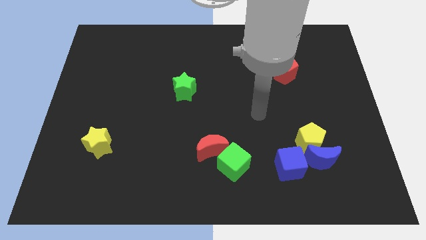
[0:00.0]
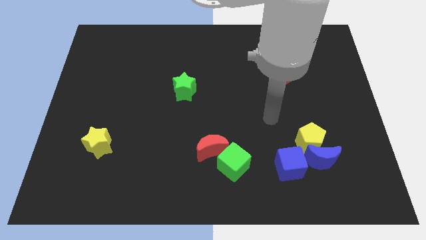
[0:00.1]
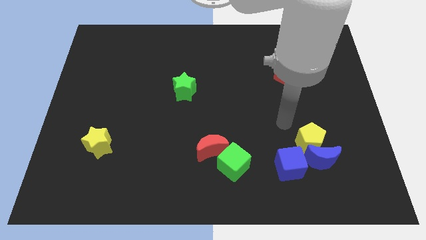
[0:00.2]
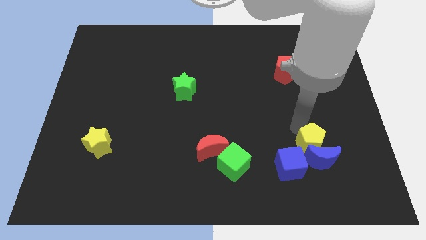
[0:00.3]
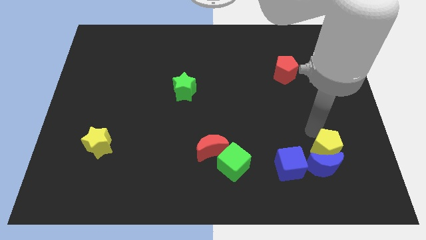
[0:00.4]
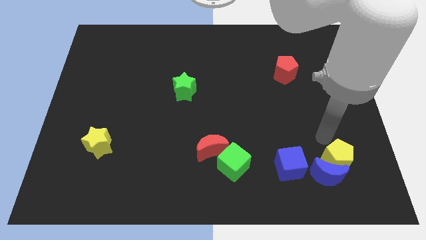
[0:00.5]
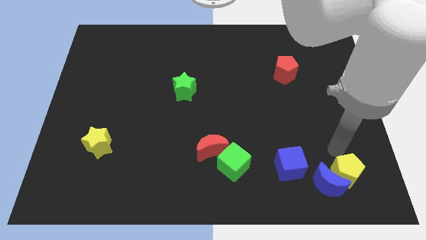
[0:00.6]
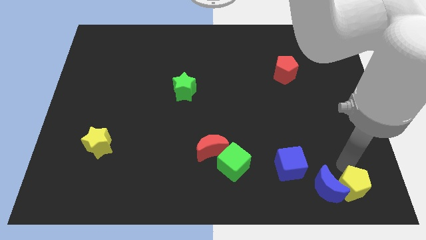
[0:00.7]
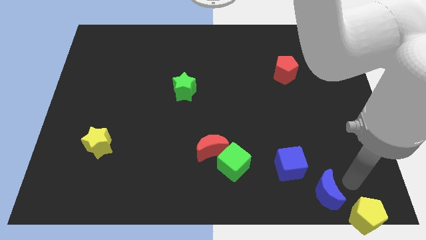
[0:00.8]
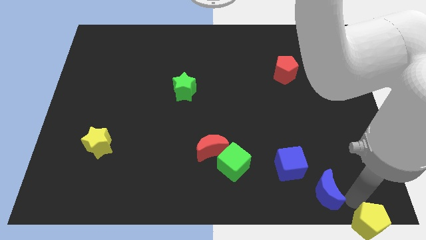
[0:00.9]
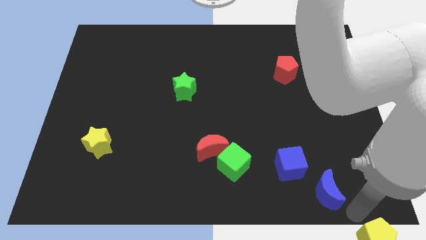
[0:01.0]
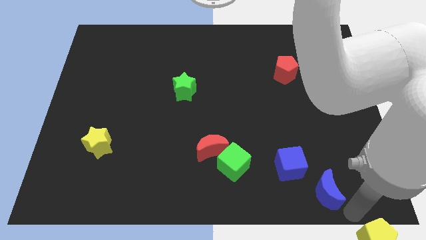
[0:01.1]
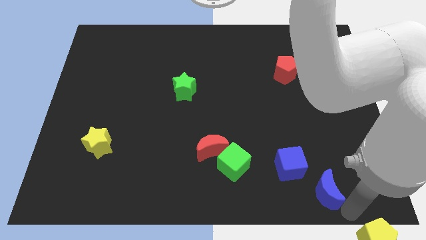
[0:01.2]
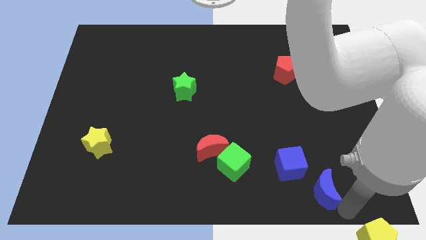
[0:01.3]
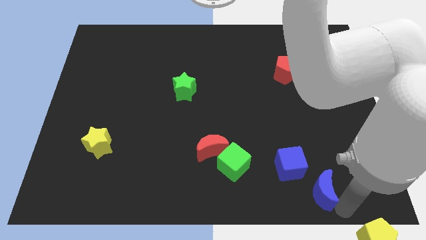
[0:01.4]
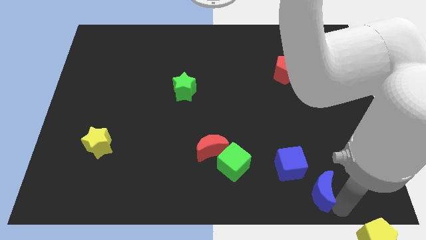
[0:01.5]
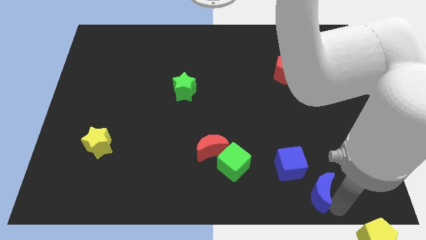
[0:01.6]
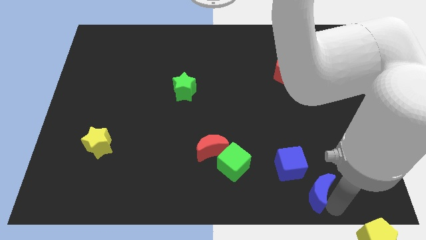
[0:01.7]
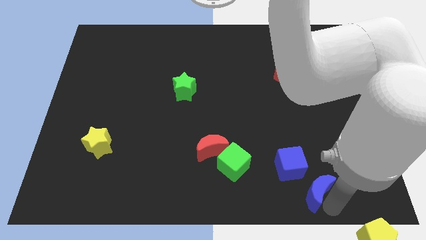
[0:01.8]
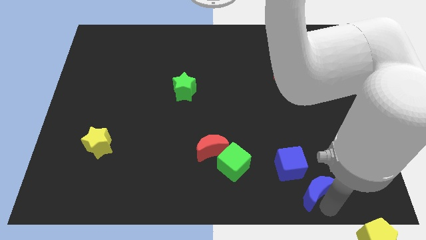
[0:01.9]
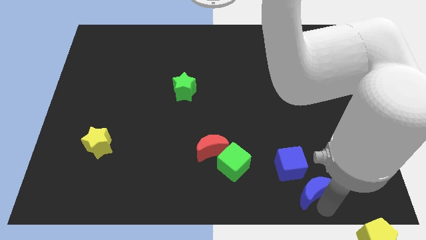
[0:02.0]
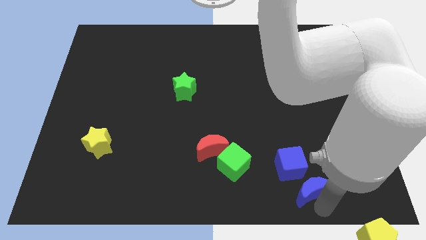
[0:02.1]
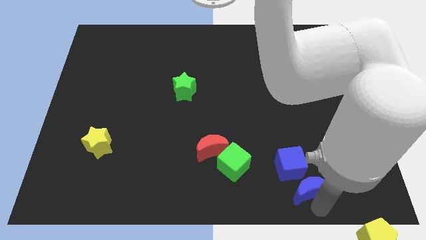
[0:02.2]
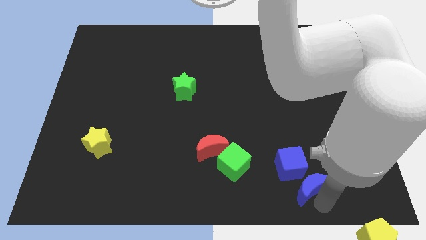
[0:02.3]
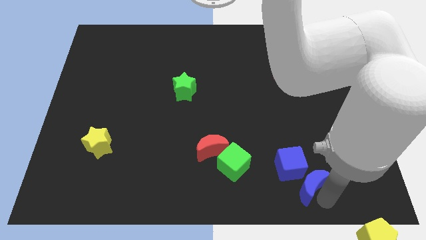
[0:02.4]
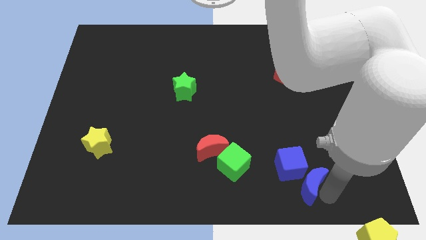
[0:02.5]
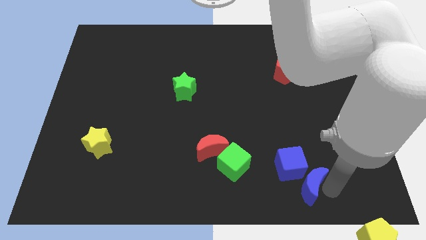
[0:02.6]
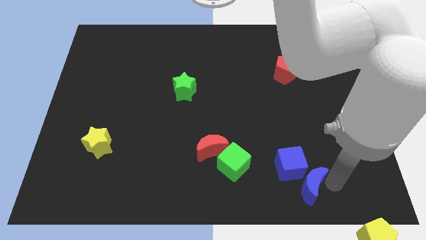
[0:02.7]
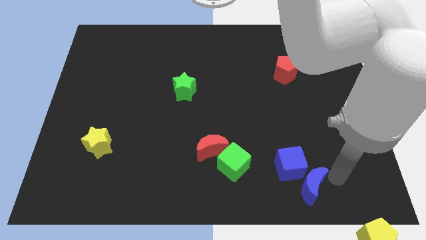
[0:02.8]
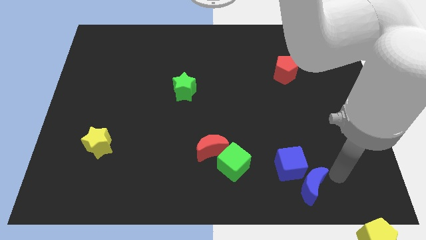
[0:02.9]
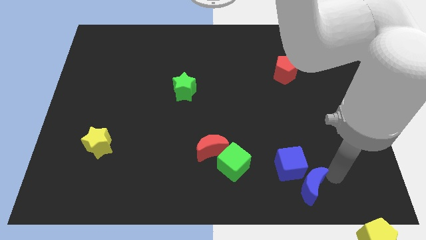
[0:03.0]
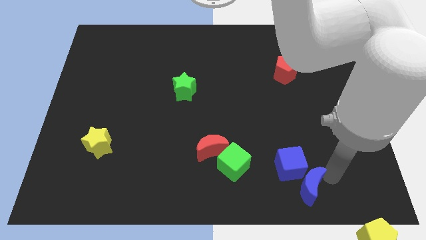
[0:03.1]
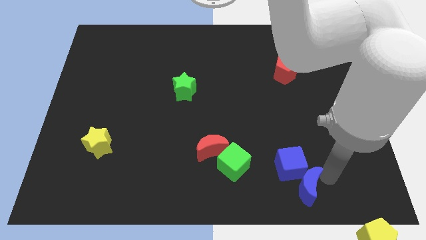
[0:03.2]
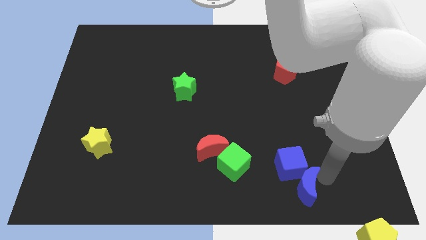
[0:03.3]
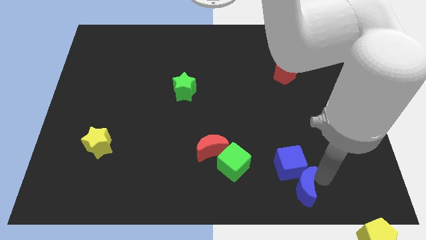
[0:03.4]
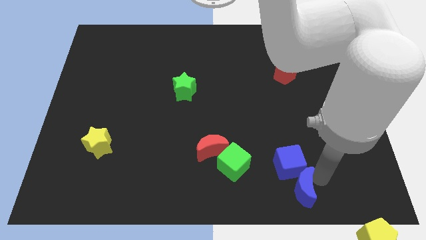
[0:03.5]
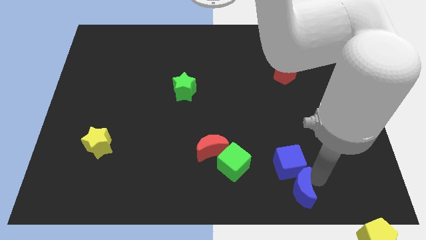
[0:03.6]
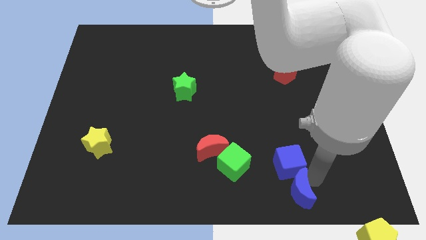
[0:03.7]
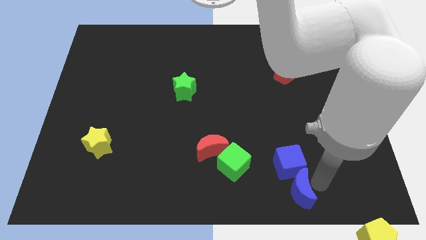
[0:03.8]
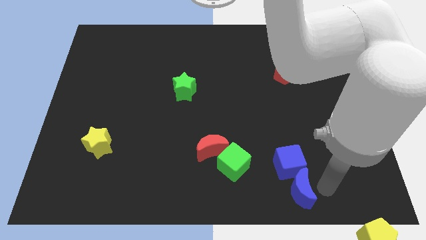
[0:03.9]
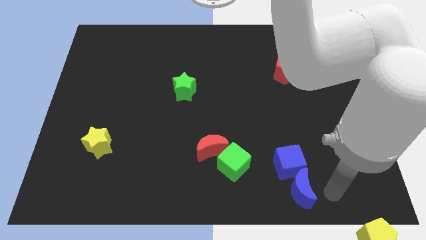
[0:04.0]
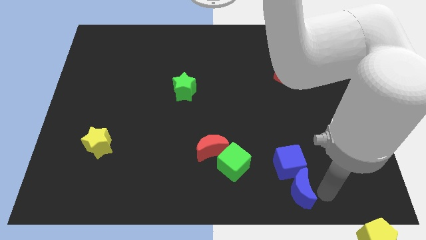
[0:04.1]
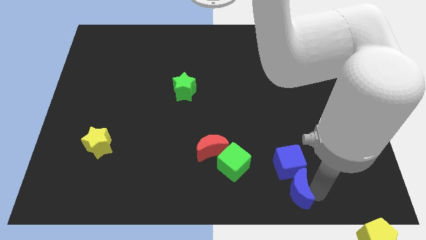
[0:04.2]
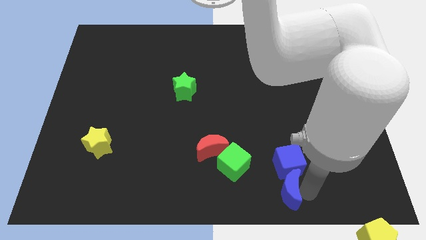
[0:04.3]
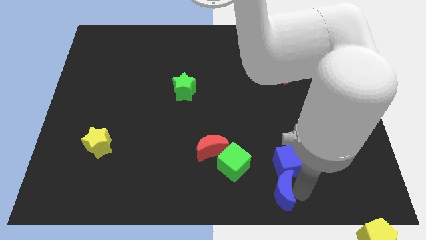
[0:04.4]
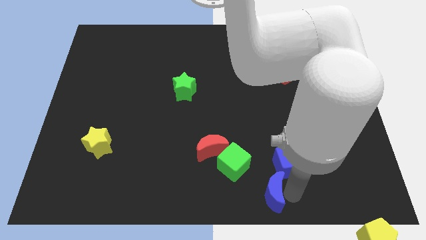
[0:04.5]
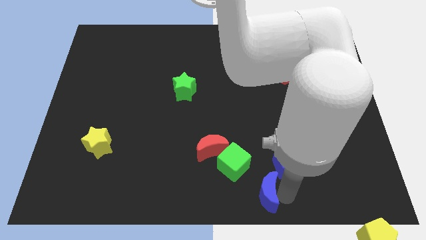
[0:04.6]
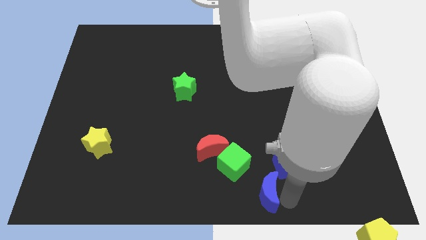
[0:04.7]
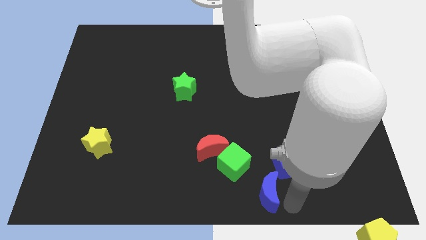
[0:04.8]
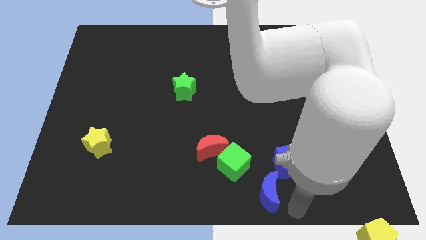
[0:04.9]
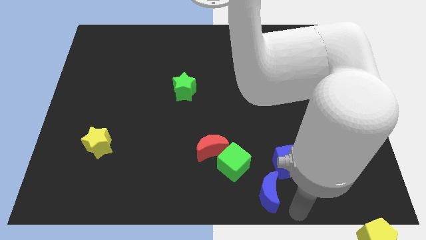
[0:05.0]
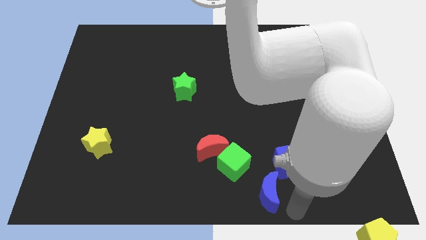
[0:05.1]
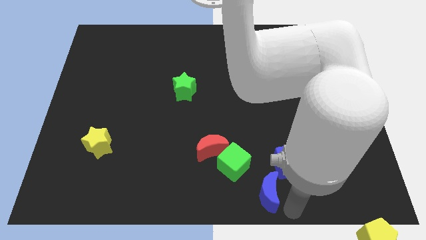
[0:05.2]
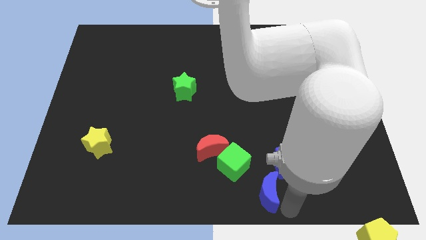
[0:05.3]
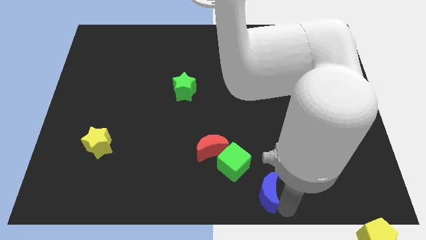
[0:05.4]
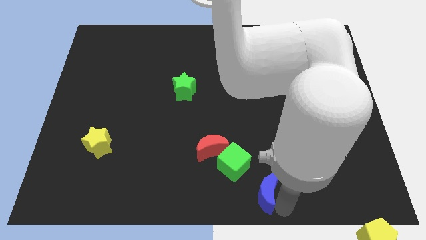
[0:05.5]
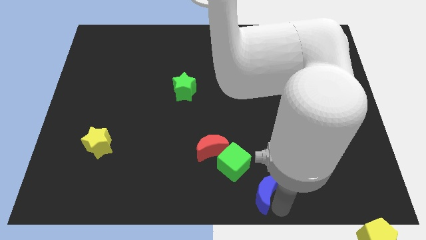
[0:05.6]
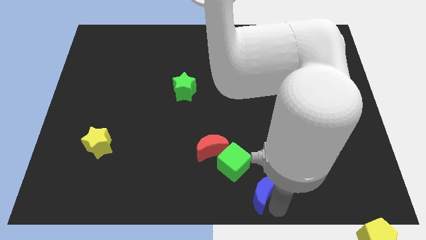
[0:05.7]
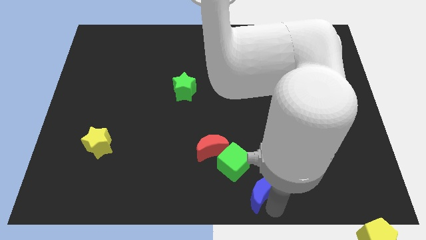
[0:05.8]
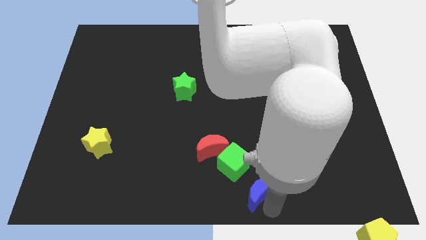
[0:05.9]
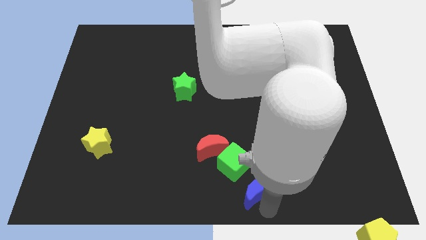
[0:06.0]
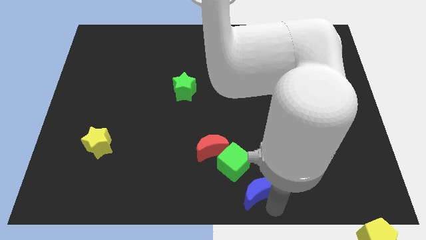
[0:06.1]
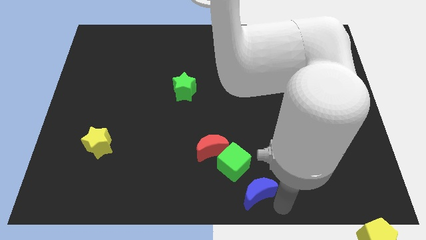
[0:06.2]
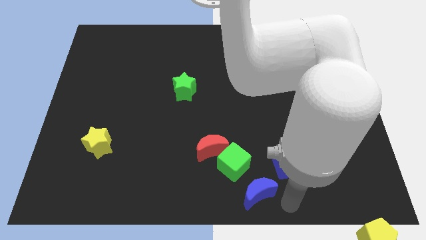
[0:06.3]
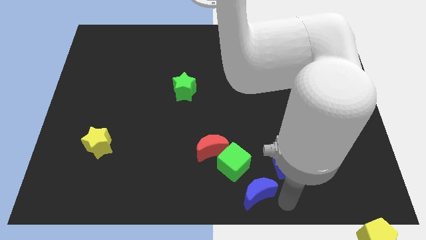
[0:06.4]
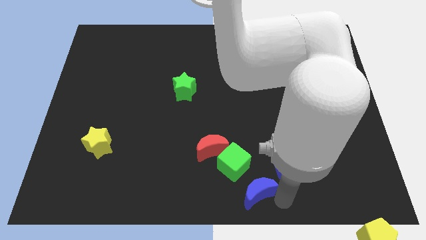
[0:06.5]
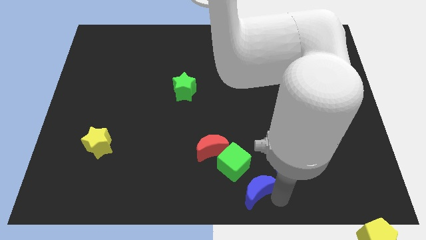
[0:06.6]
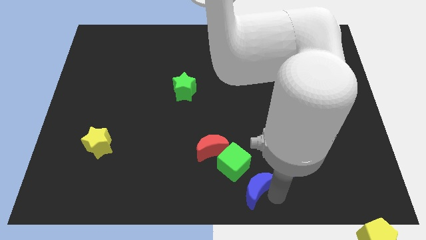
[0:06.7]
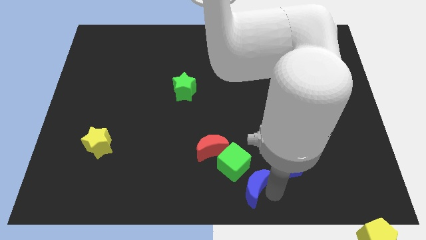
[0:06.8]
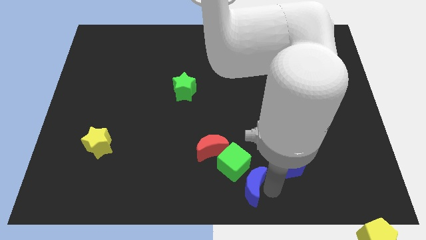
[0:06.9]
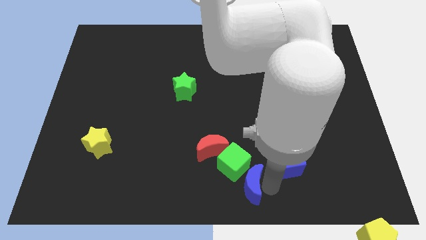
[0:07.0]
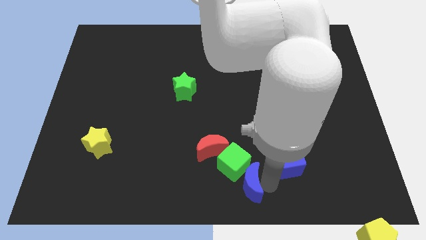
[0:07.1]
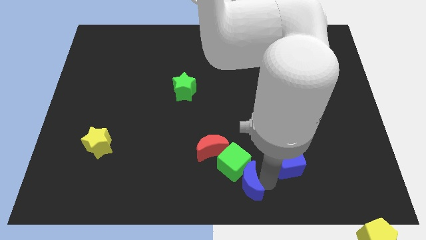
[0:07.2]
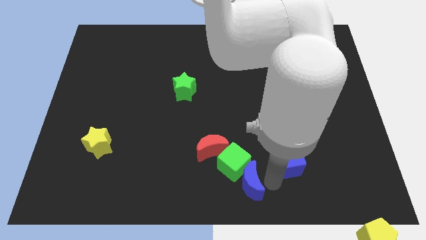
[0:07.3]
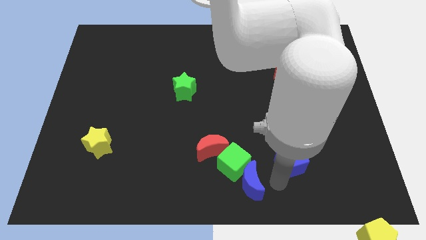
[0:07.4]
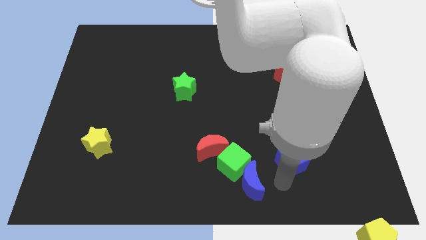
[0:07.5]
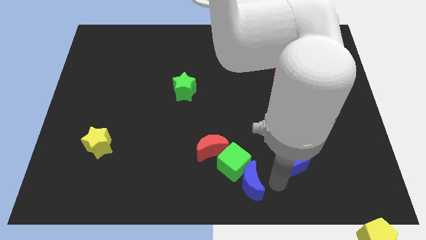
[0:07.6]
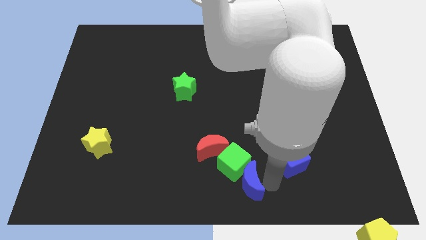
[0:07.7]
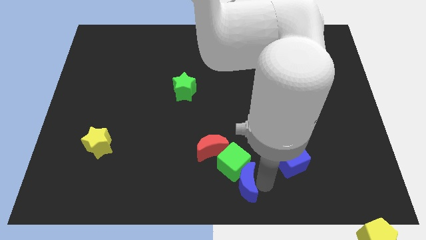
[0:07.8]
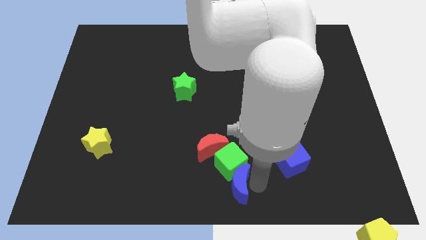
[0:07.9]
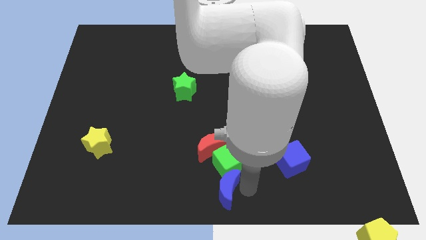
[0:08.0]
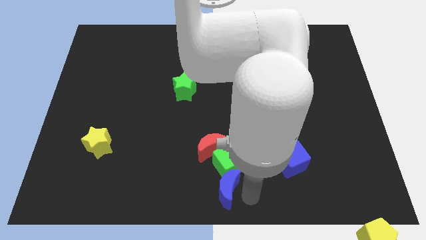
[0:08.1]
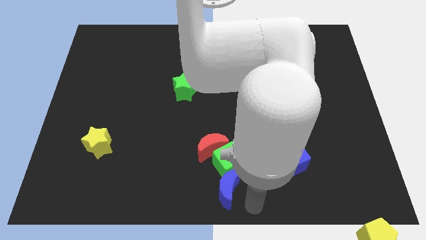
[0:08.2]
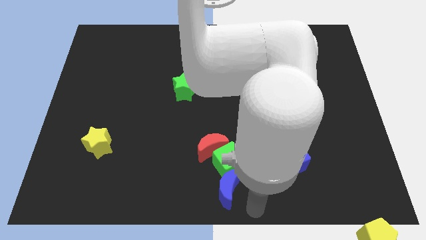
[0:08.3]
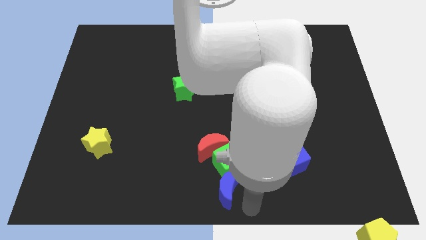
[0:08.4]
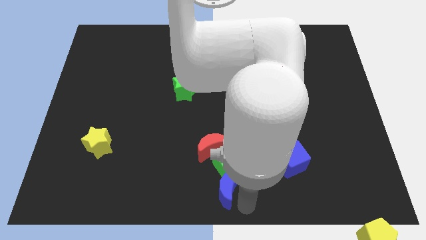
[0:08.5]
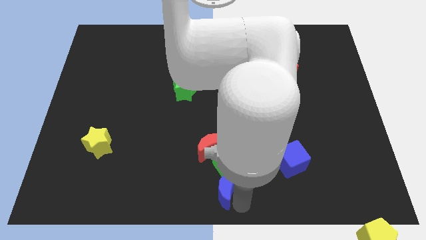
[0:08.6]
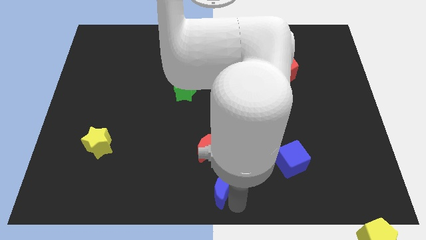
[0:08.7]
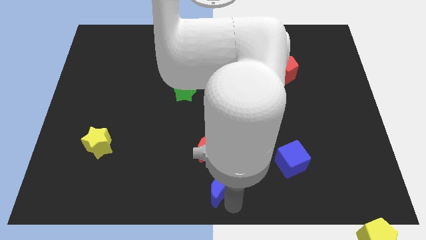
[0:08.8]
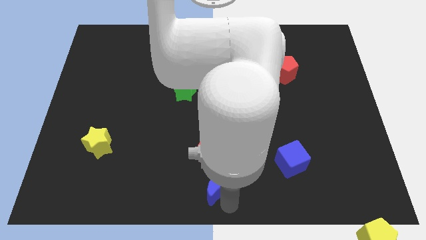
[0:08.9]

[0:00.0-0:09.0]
slide the blue moon to the left
